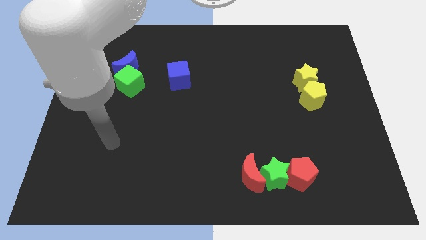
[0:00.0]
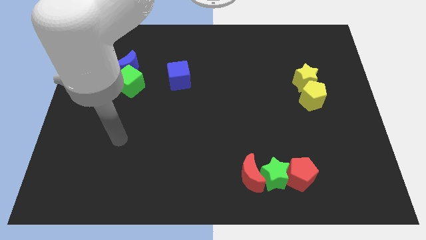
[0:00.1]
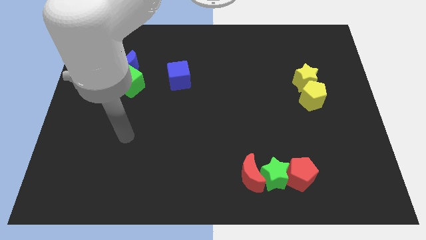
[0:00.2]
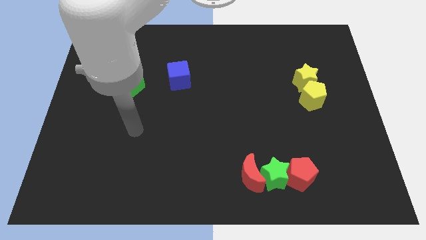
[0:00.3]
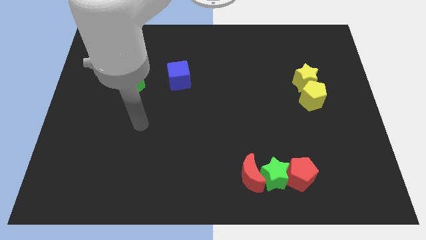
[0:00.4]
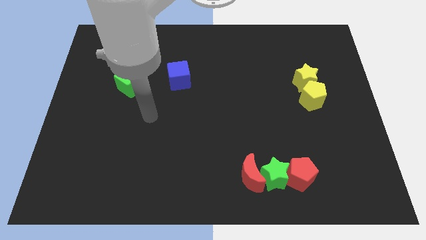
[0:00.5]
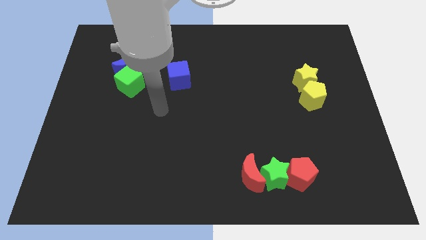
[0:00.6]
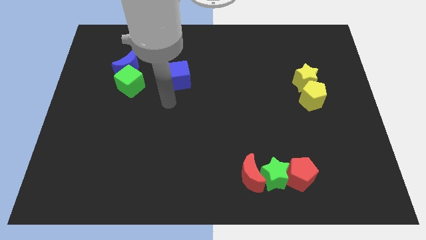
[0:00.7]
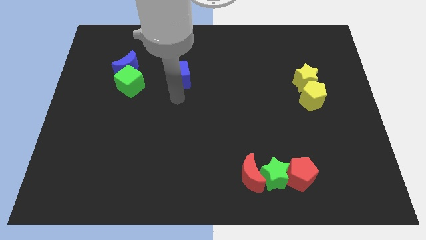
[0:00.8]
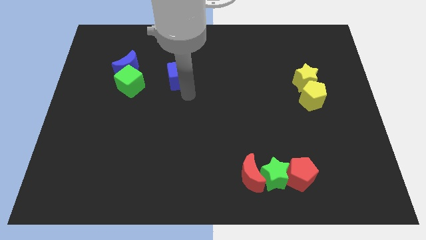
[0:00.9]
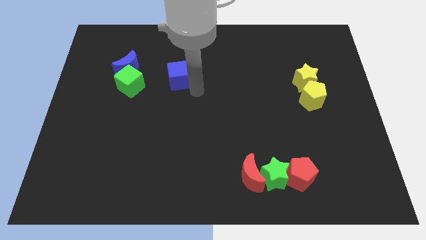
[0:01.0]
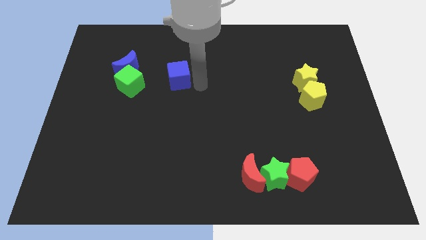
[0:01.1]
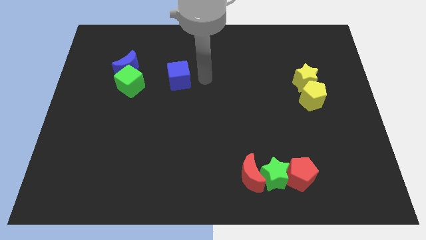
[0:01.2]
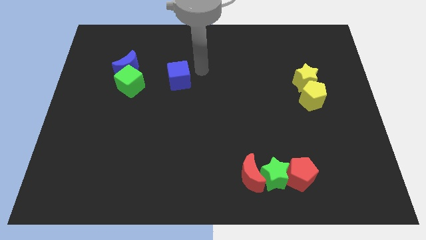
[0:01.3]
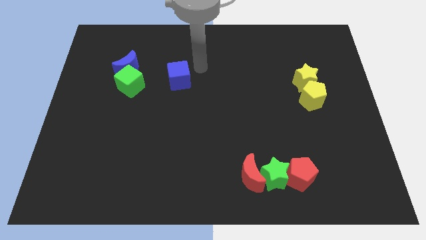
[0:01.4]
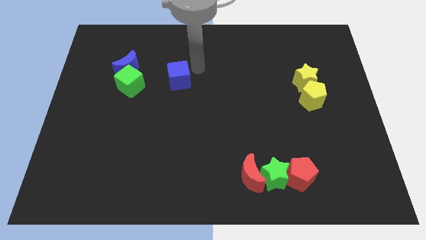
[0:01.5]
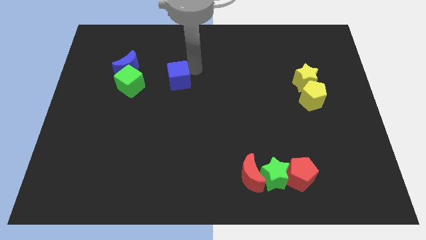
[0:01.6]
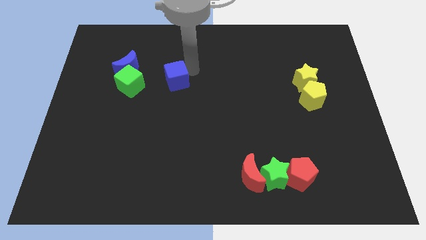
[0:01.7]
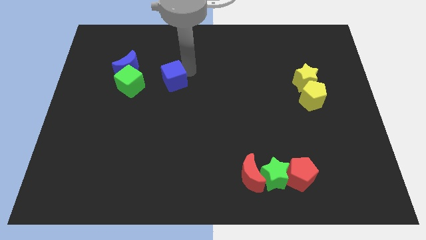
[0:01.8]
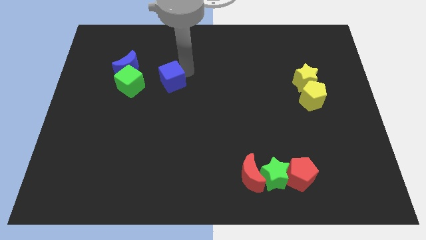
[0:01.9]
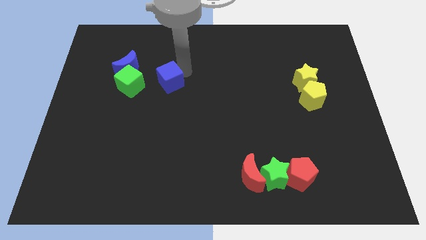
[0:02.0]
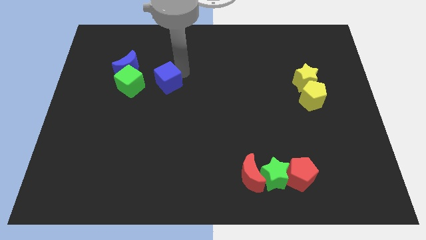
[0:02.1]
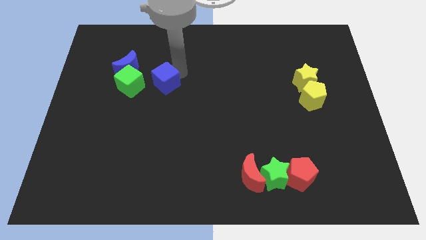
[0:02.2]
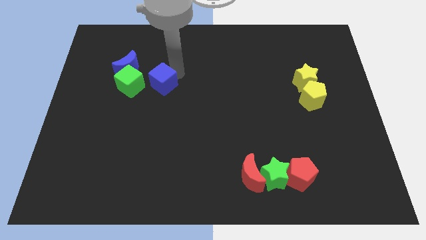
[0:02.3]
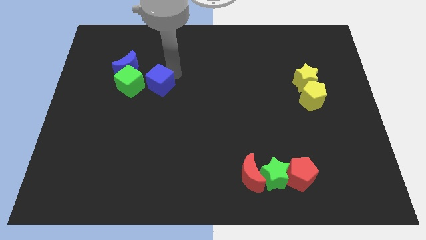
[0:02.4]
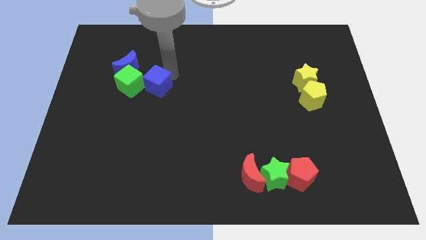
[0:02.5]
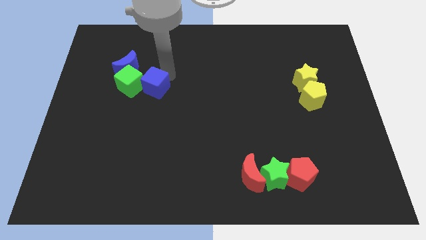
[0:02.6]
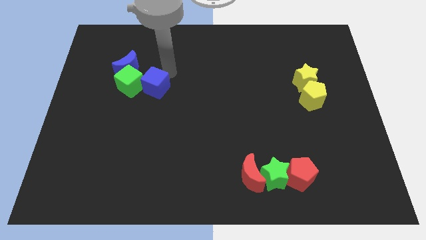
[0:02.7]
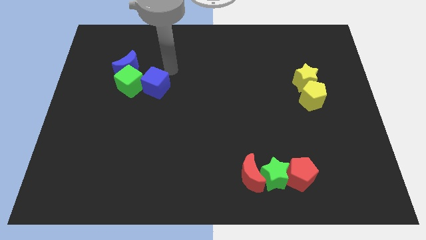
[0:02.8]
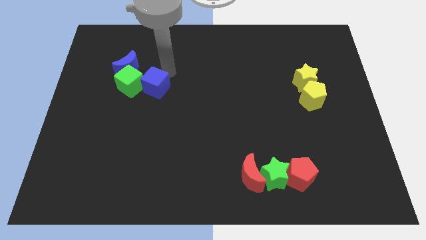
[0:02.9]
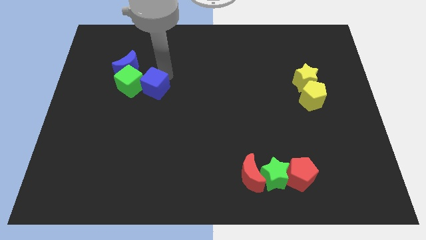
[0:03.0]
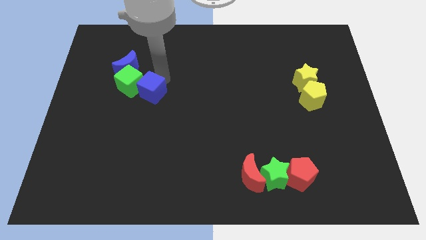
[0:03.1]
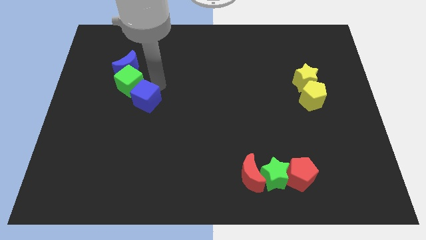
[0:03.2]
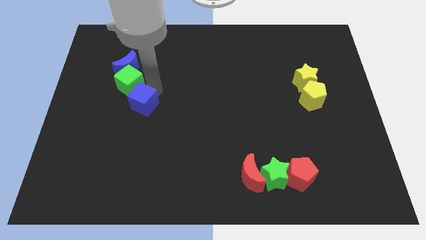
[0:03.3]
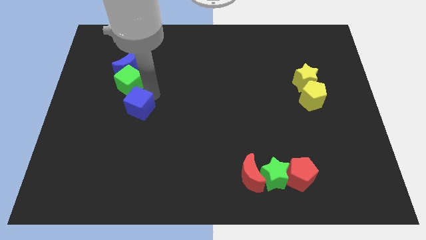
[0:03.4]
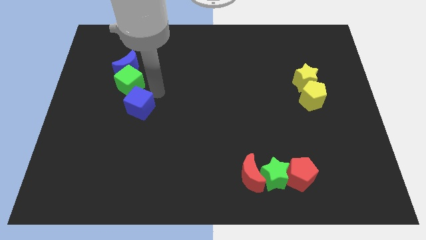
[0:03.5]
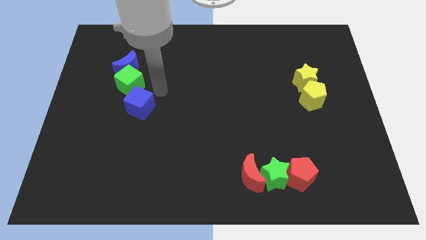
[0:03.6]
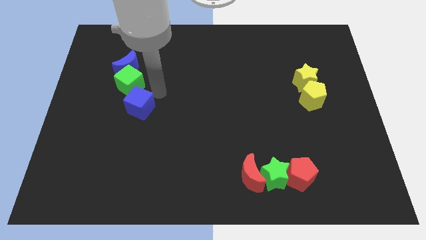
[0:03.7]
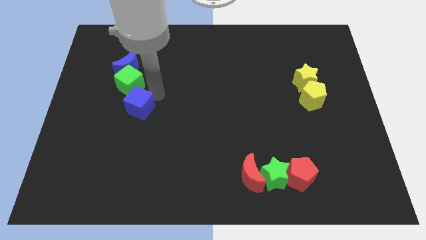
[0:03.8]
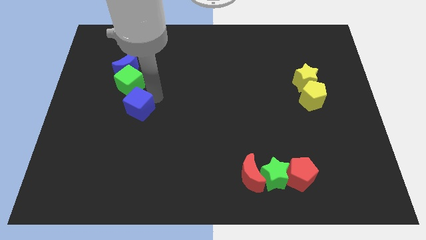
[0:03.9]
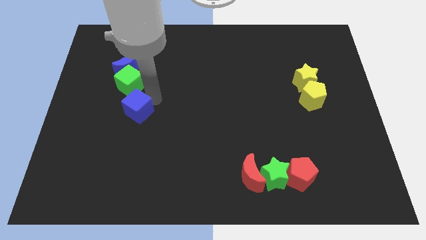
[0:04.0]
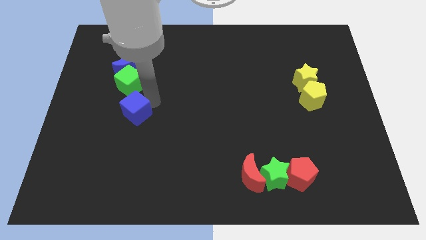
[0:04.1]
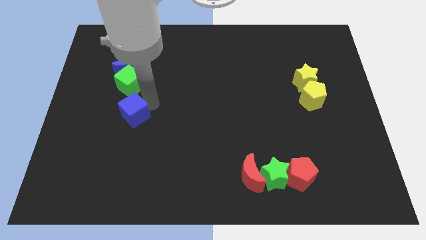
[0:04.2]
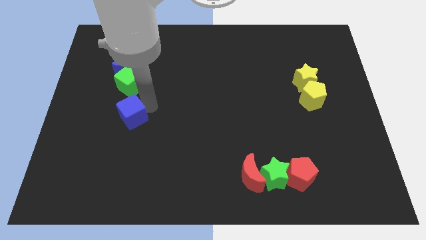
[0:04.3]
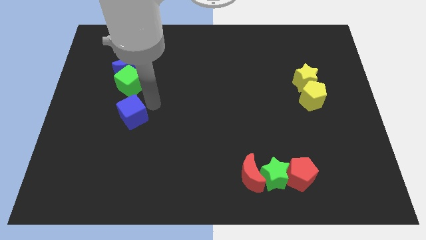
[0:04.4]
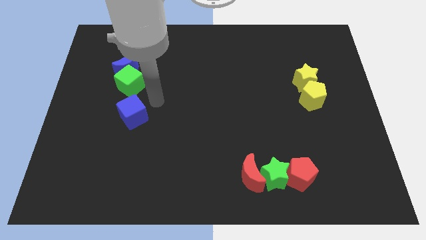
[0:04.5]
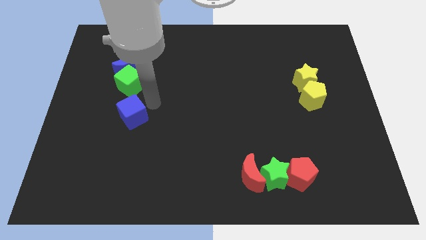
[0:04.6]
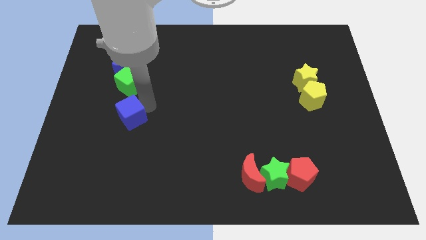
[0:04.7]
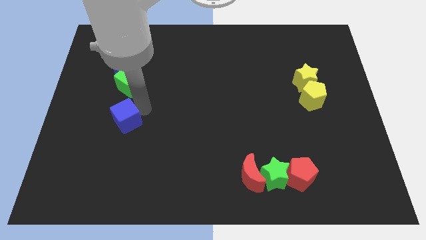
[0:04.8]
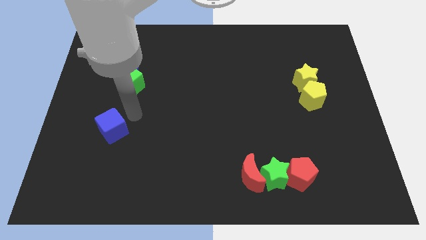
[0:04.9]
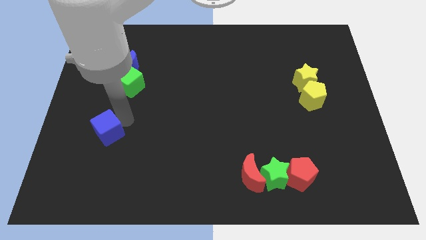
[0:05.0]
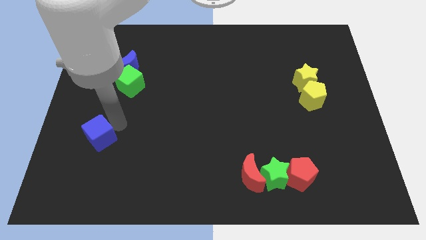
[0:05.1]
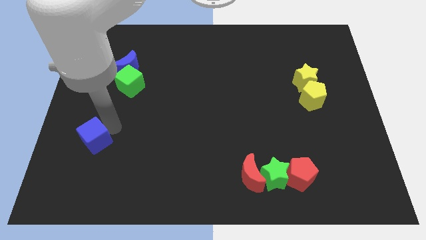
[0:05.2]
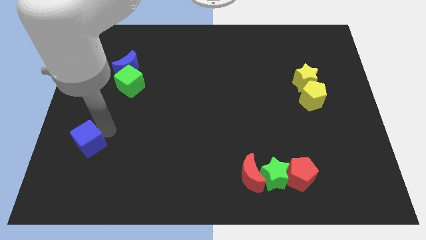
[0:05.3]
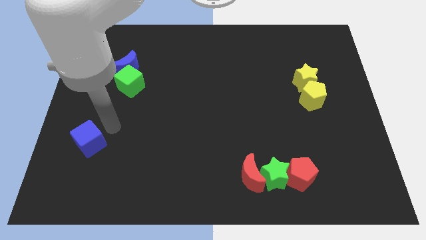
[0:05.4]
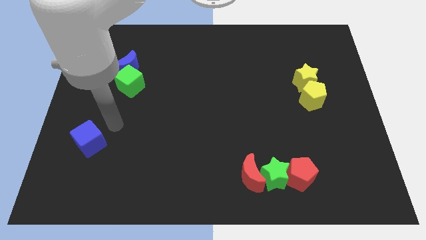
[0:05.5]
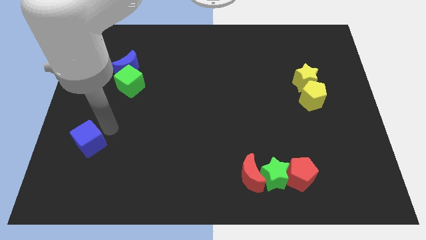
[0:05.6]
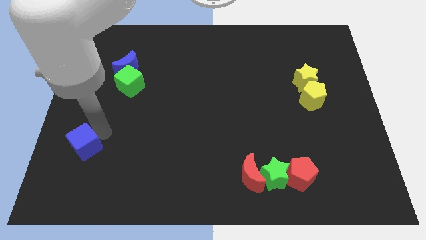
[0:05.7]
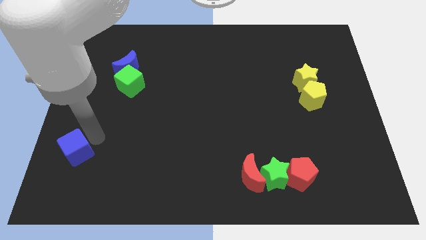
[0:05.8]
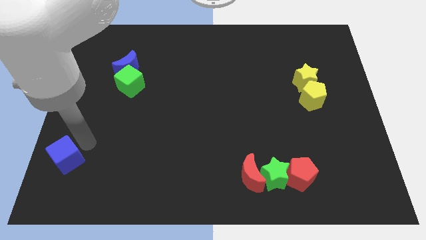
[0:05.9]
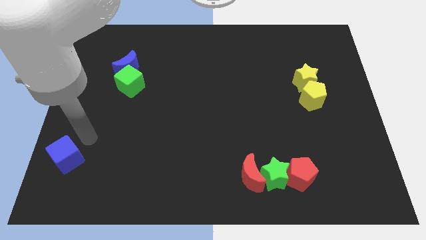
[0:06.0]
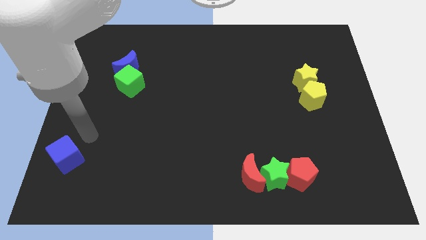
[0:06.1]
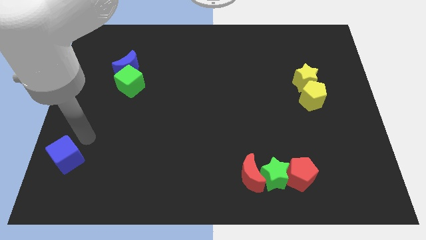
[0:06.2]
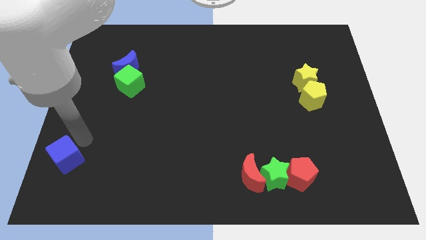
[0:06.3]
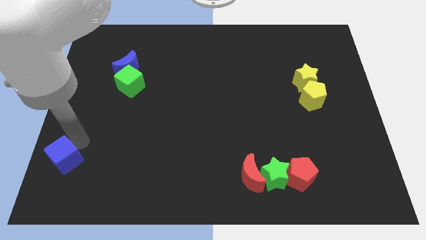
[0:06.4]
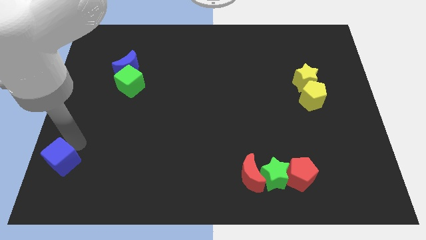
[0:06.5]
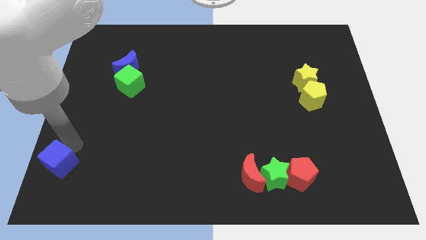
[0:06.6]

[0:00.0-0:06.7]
put the blue cube to the bottom left

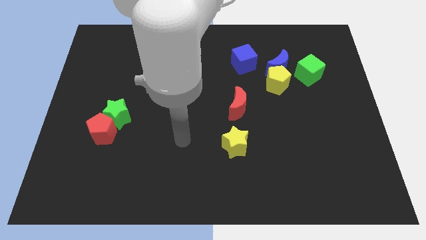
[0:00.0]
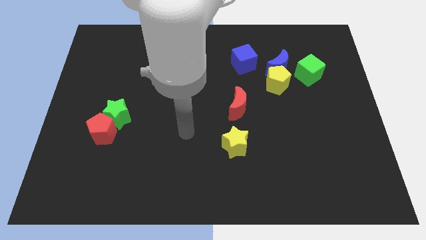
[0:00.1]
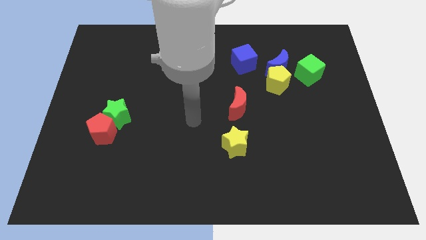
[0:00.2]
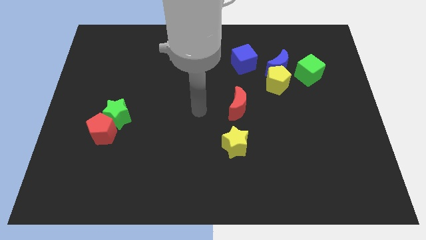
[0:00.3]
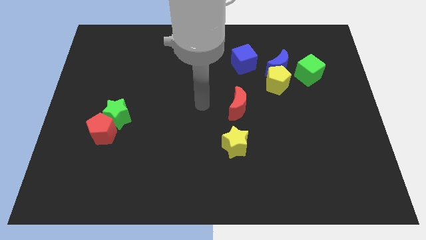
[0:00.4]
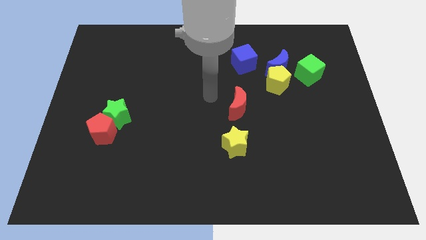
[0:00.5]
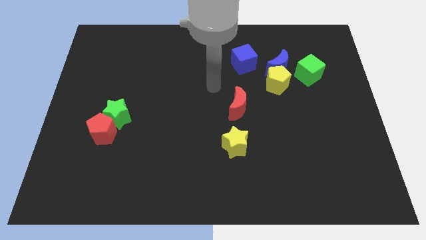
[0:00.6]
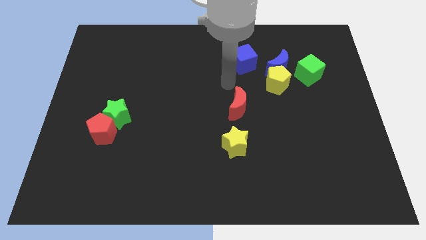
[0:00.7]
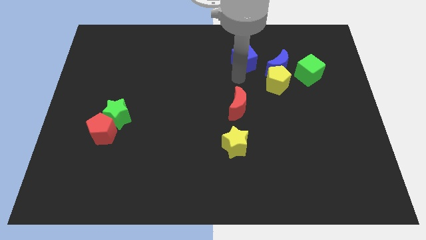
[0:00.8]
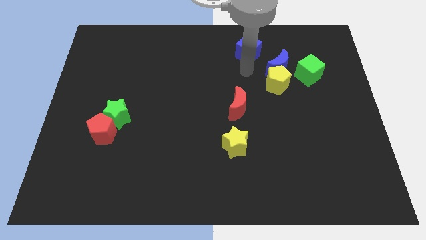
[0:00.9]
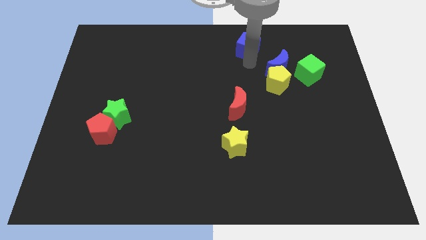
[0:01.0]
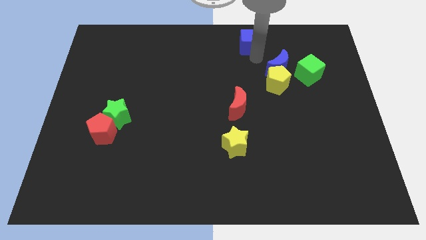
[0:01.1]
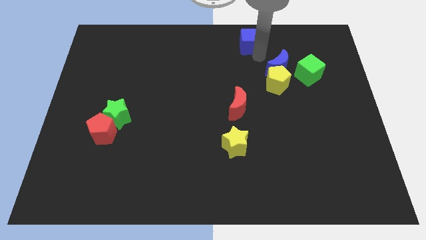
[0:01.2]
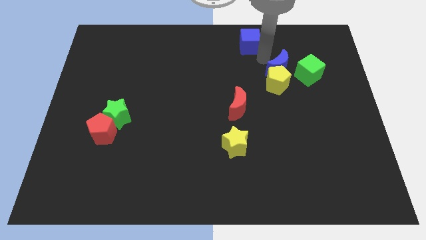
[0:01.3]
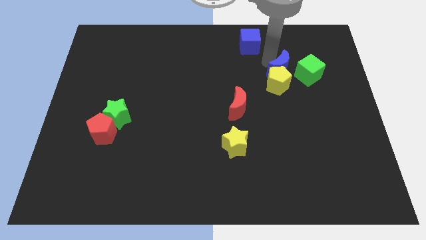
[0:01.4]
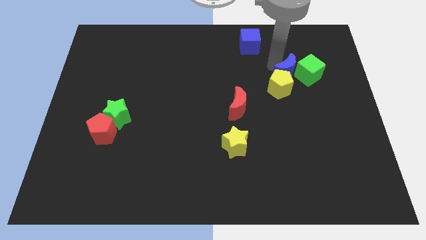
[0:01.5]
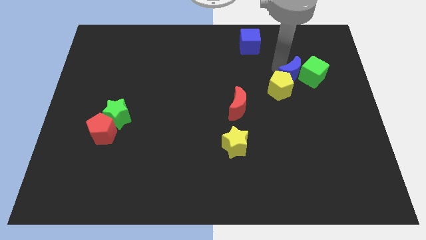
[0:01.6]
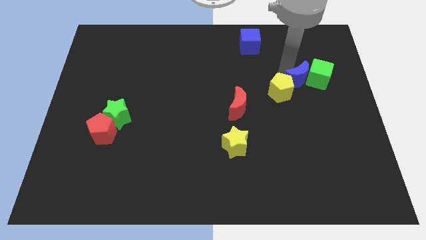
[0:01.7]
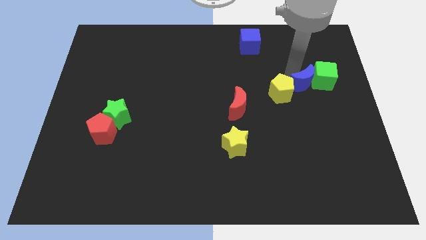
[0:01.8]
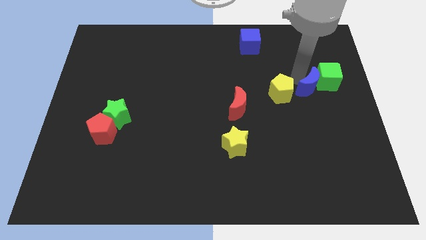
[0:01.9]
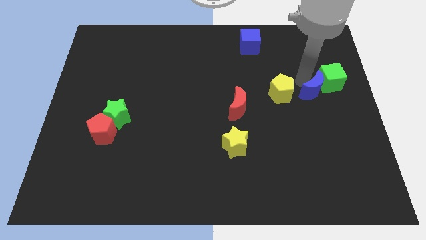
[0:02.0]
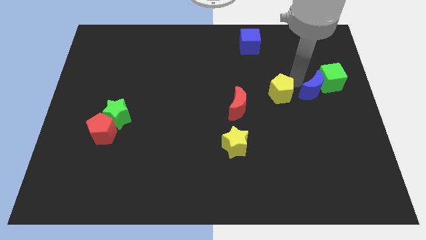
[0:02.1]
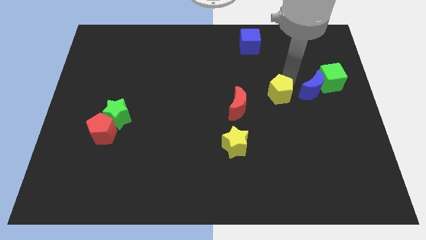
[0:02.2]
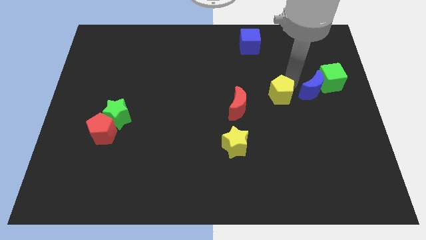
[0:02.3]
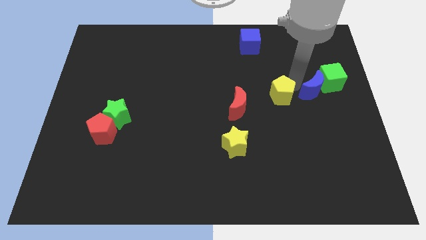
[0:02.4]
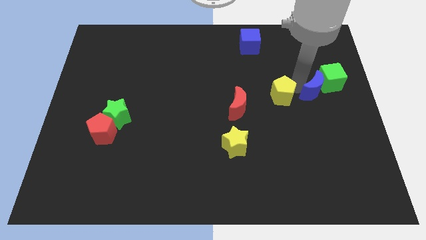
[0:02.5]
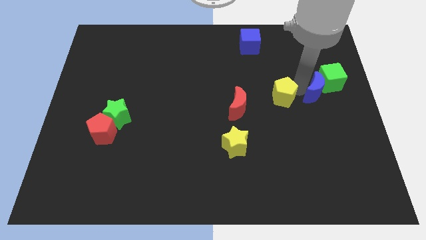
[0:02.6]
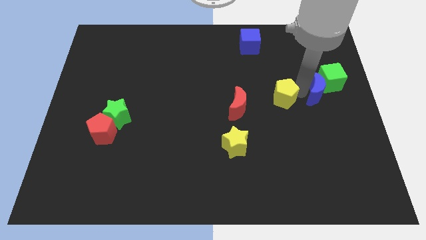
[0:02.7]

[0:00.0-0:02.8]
push the blue moon to the right side
